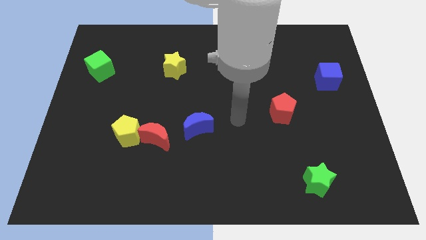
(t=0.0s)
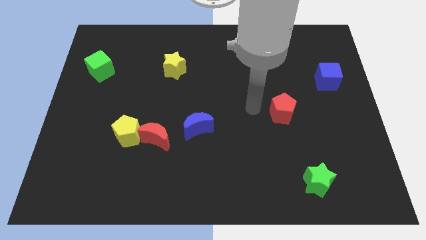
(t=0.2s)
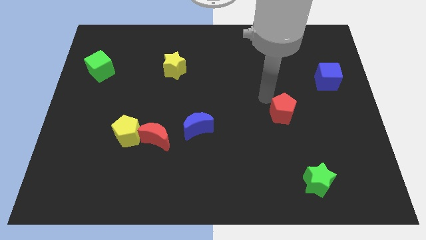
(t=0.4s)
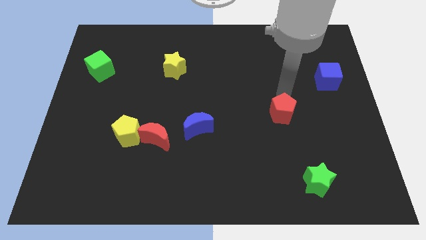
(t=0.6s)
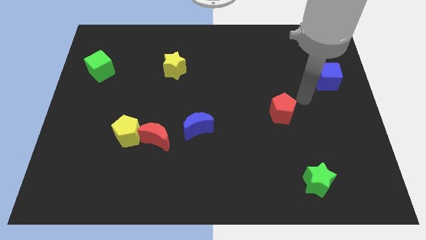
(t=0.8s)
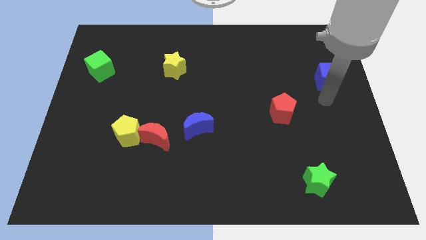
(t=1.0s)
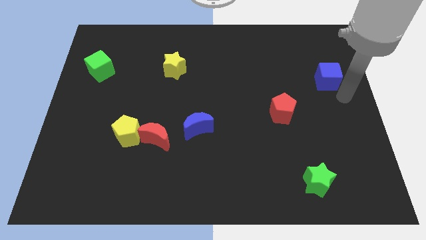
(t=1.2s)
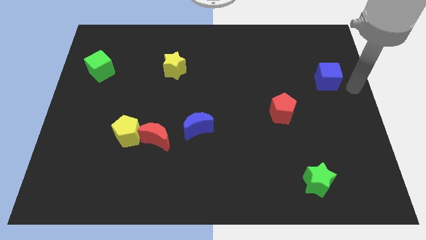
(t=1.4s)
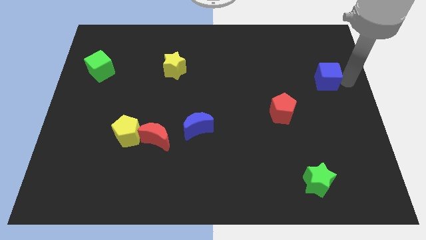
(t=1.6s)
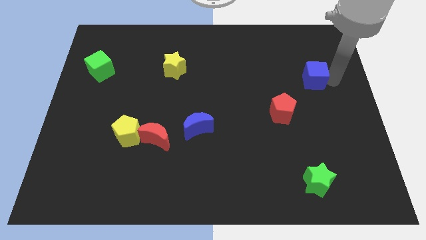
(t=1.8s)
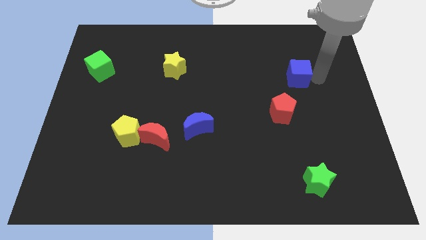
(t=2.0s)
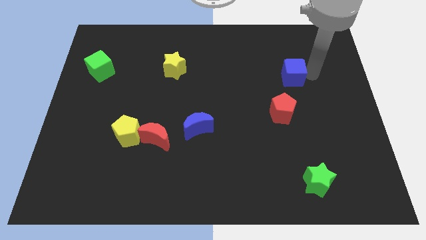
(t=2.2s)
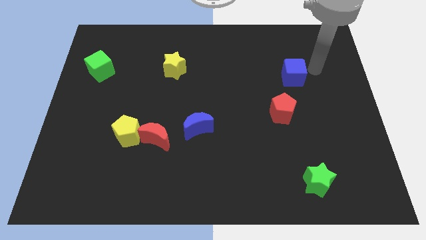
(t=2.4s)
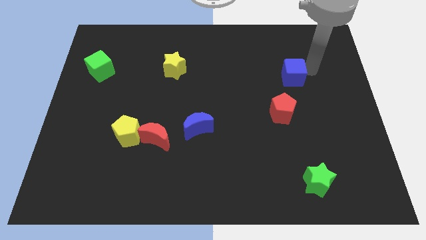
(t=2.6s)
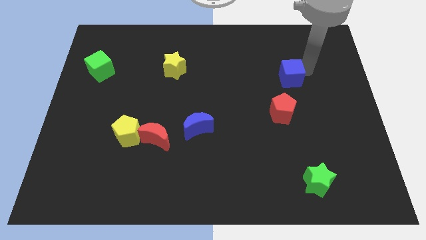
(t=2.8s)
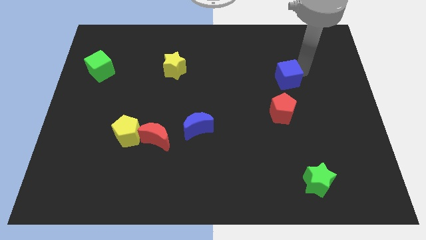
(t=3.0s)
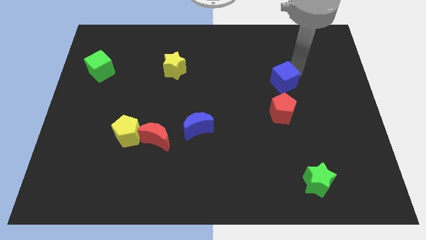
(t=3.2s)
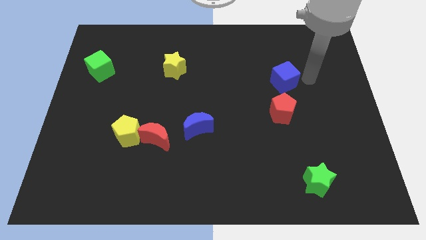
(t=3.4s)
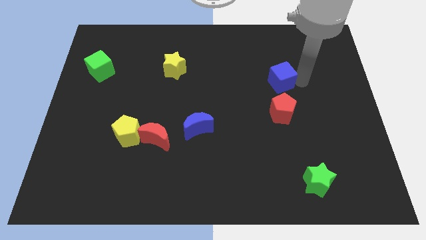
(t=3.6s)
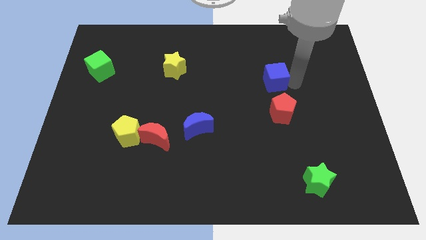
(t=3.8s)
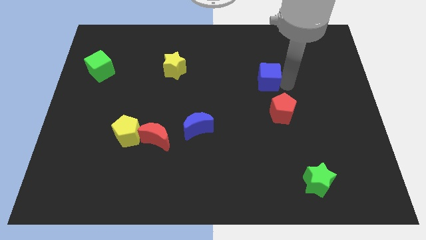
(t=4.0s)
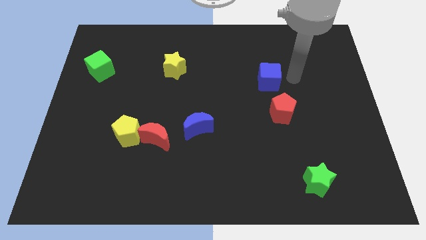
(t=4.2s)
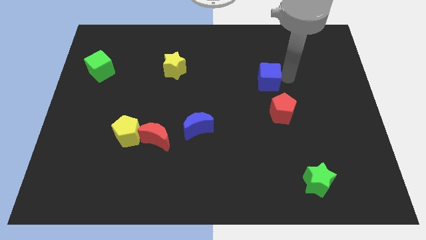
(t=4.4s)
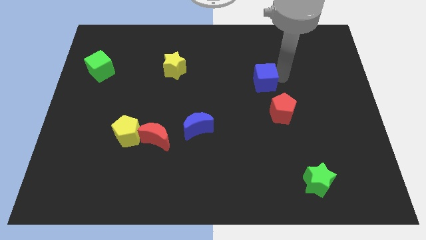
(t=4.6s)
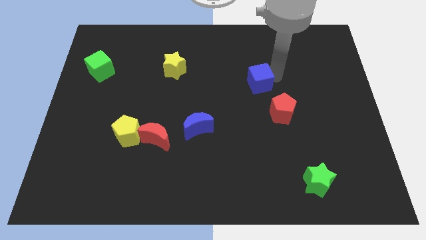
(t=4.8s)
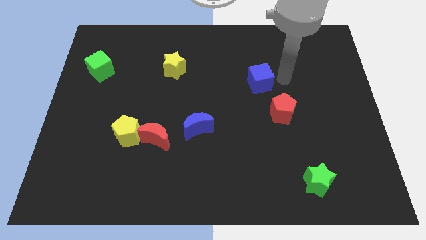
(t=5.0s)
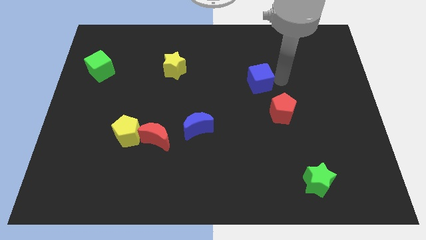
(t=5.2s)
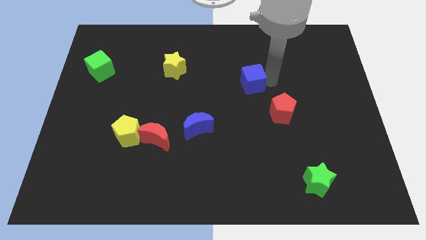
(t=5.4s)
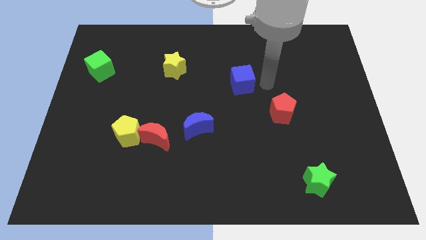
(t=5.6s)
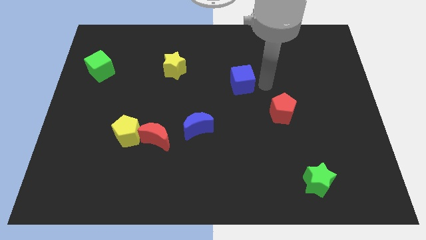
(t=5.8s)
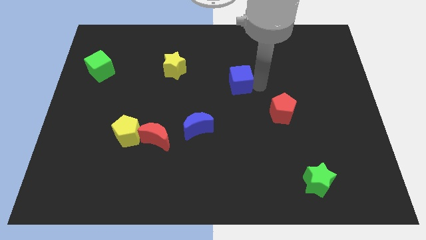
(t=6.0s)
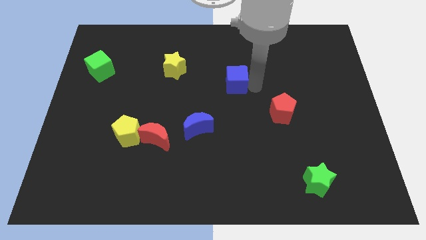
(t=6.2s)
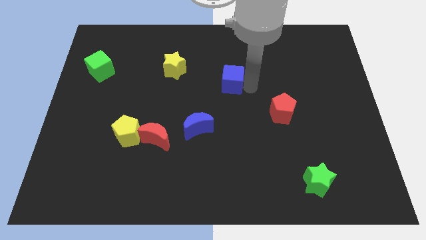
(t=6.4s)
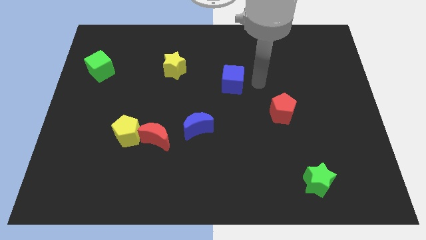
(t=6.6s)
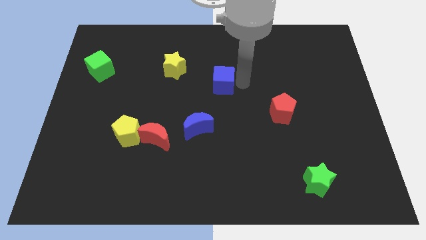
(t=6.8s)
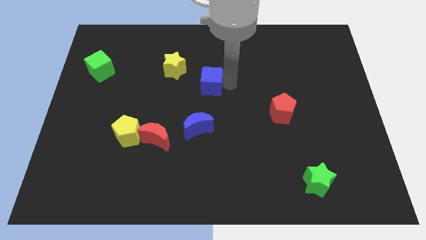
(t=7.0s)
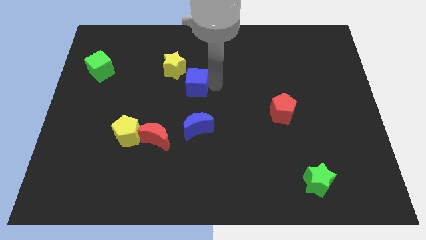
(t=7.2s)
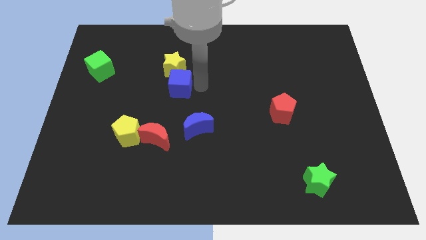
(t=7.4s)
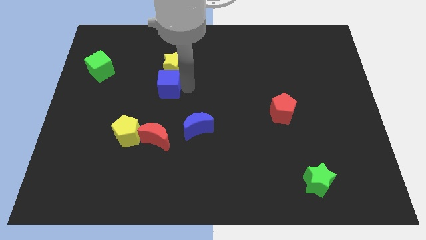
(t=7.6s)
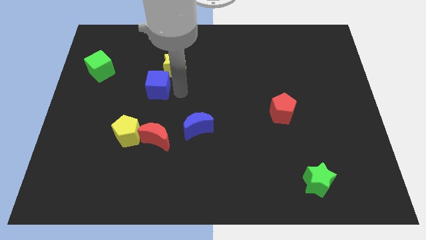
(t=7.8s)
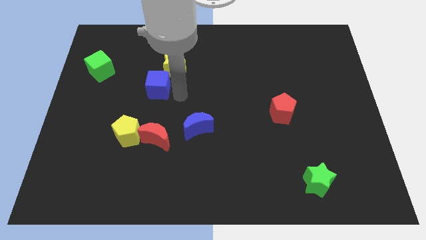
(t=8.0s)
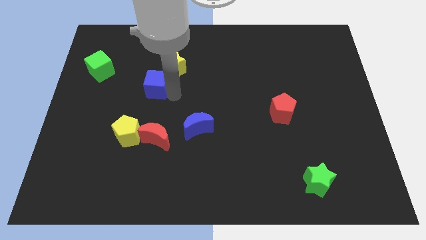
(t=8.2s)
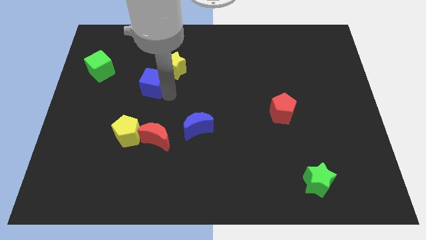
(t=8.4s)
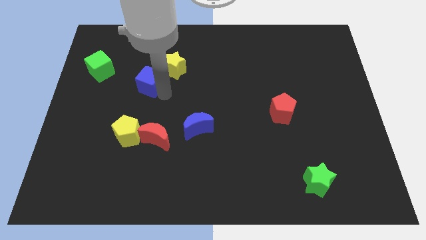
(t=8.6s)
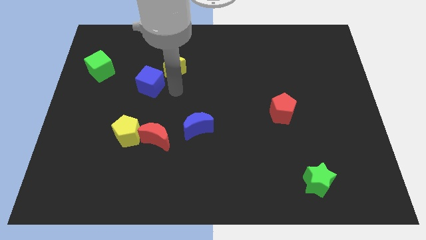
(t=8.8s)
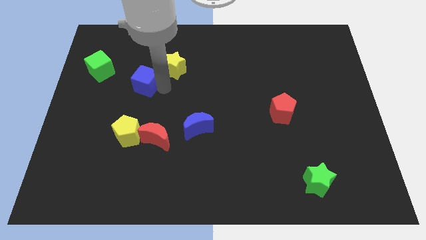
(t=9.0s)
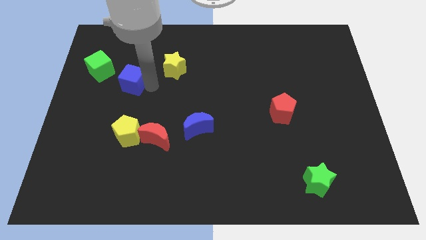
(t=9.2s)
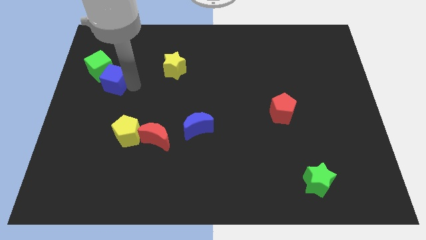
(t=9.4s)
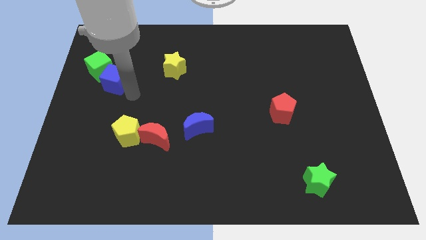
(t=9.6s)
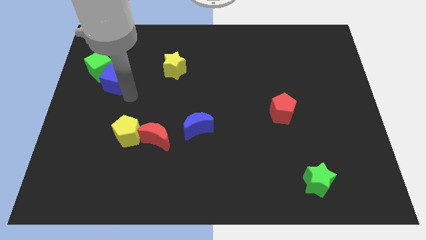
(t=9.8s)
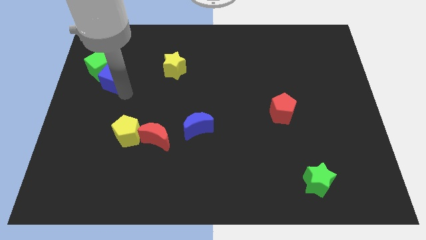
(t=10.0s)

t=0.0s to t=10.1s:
slide the blue cube to the green cube

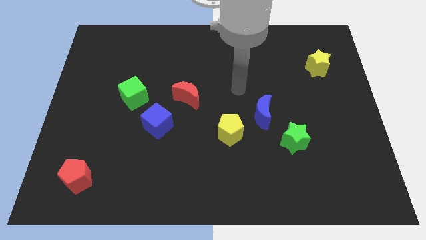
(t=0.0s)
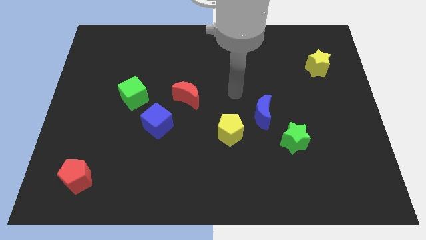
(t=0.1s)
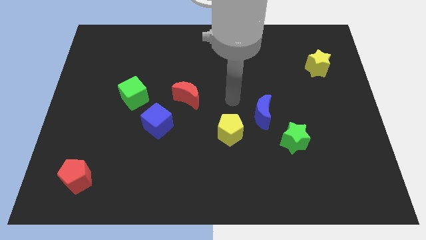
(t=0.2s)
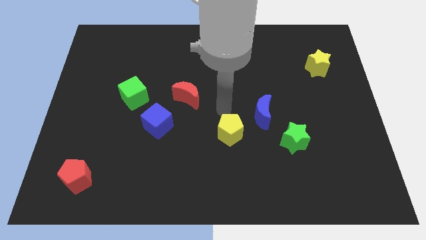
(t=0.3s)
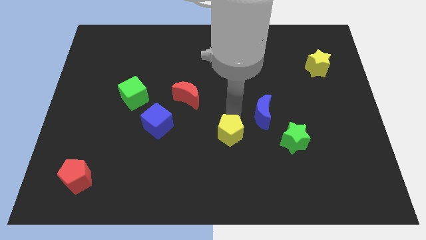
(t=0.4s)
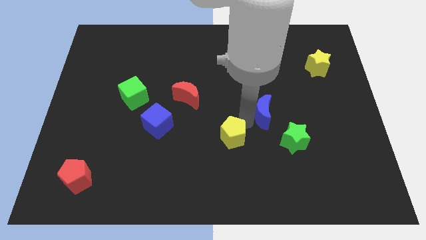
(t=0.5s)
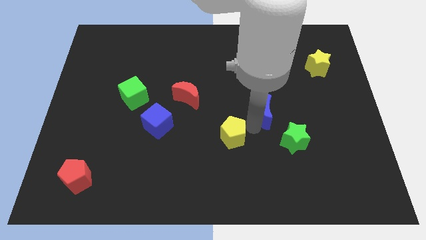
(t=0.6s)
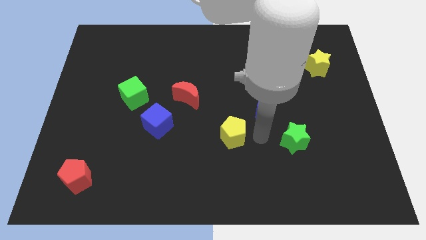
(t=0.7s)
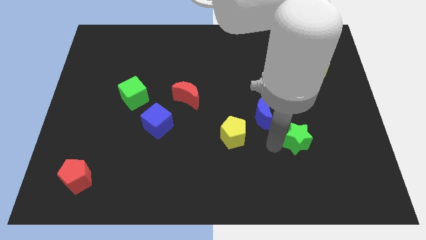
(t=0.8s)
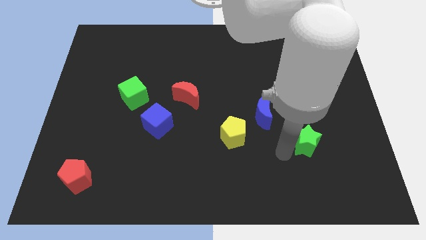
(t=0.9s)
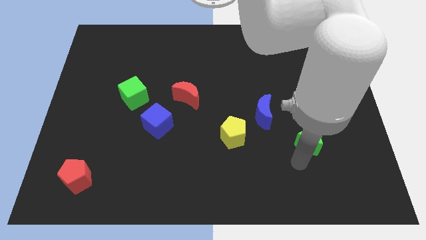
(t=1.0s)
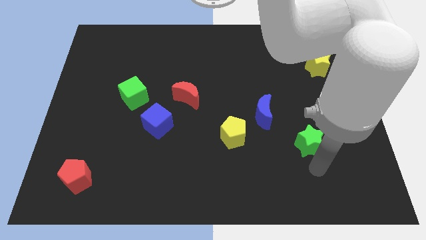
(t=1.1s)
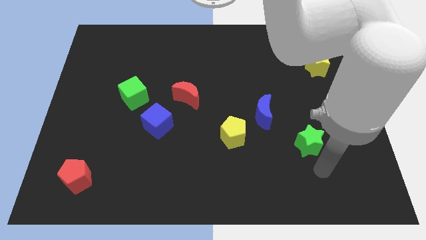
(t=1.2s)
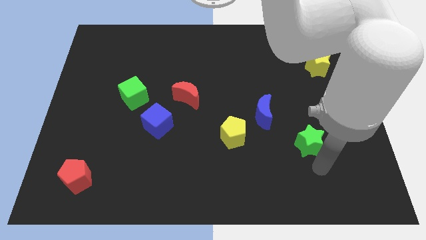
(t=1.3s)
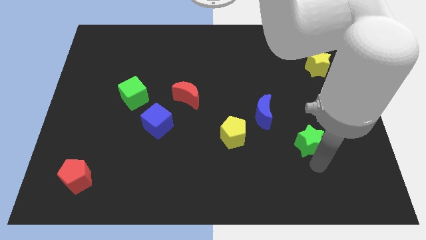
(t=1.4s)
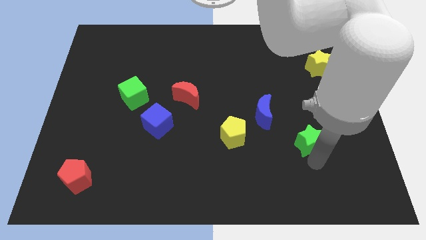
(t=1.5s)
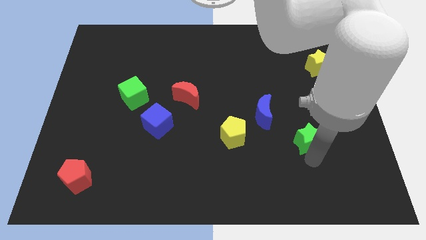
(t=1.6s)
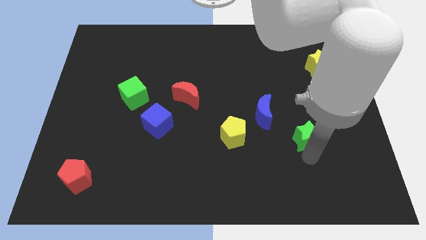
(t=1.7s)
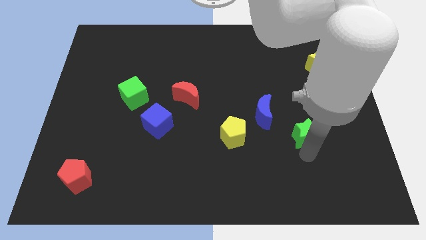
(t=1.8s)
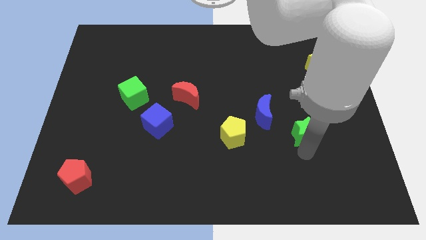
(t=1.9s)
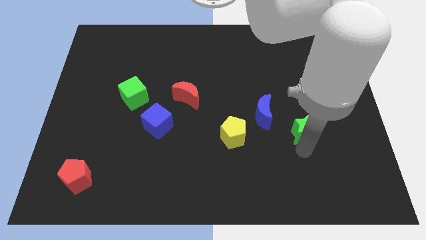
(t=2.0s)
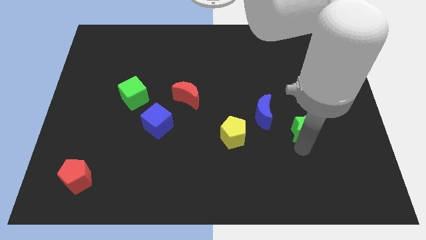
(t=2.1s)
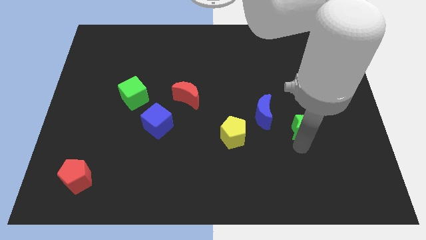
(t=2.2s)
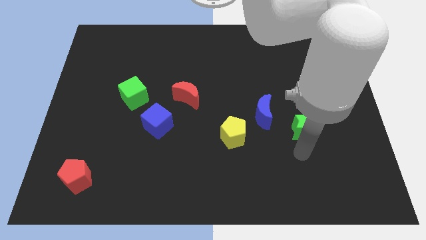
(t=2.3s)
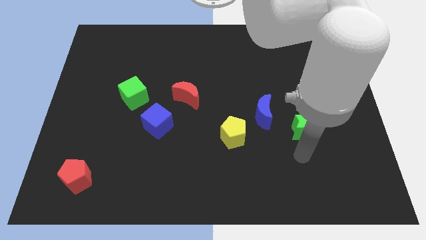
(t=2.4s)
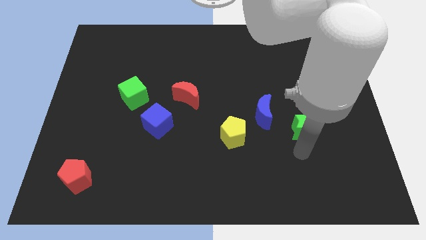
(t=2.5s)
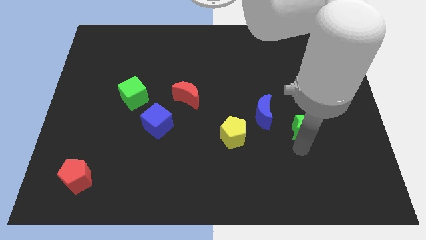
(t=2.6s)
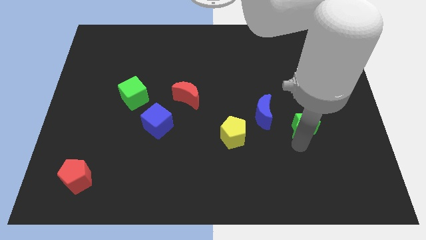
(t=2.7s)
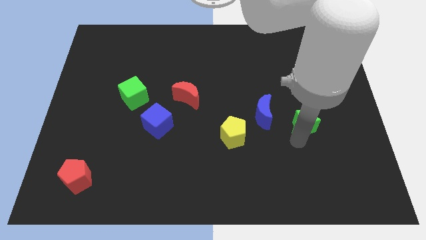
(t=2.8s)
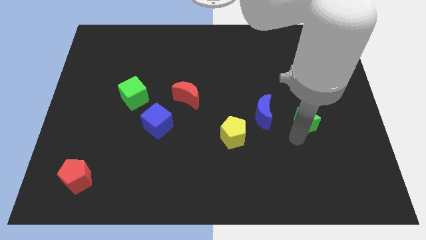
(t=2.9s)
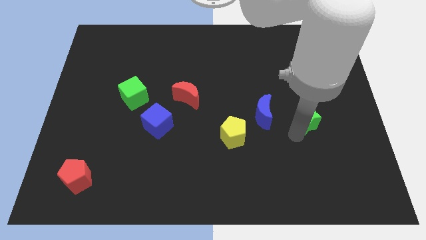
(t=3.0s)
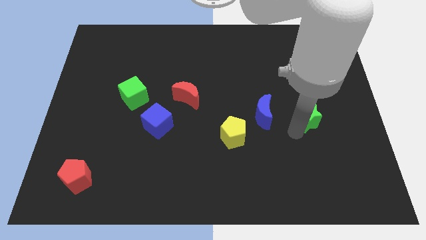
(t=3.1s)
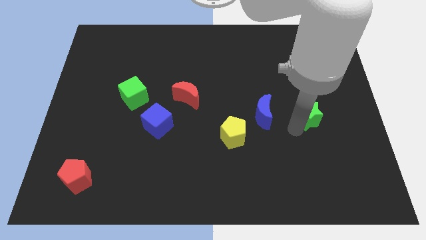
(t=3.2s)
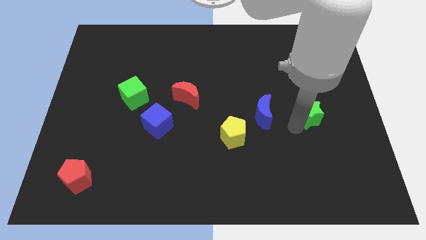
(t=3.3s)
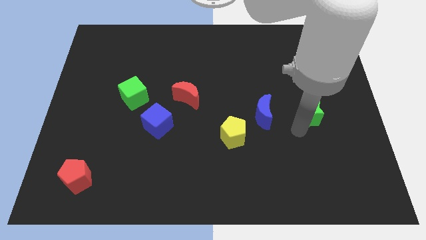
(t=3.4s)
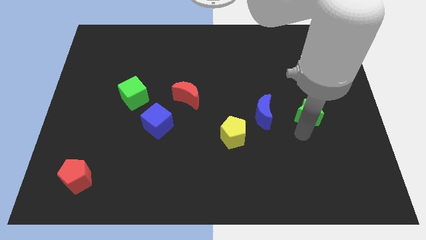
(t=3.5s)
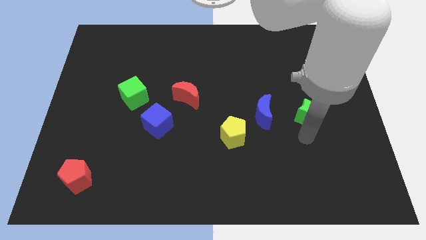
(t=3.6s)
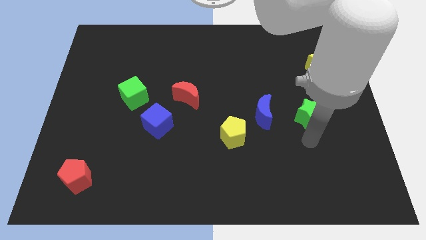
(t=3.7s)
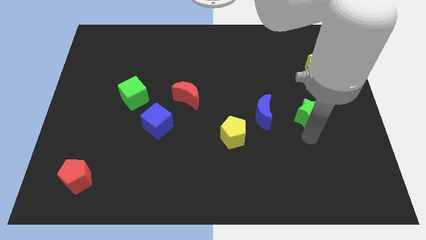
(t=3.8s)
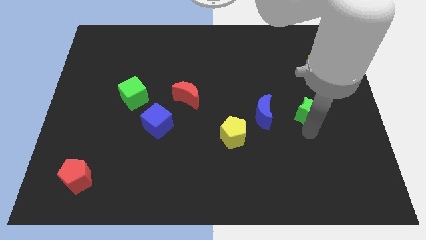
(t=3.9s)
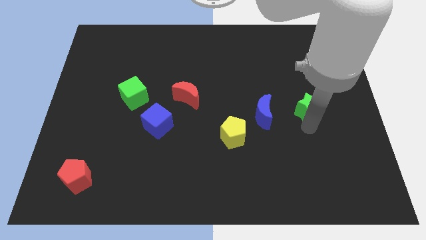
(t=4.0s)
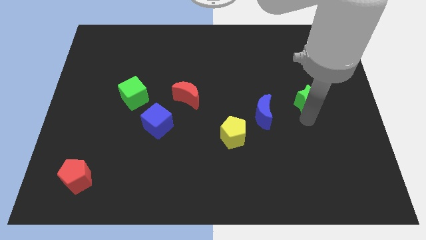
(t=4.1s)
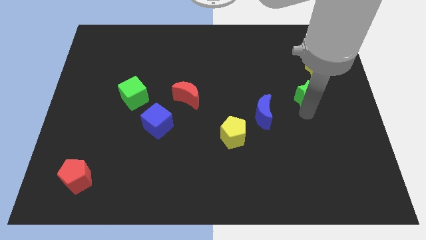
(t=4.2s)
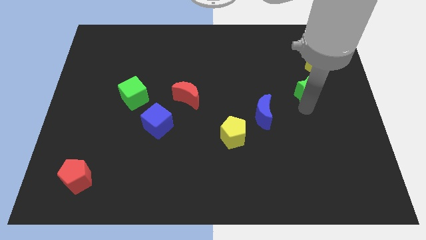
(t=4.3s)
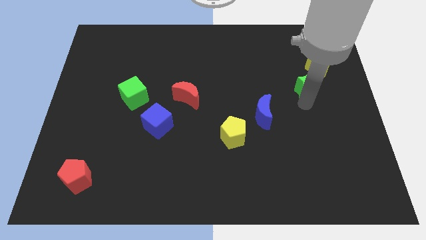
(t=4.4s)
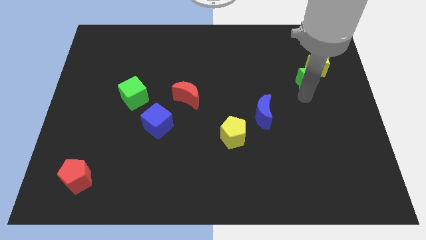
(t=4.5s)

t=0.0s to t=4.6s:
slide the green star close to the yellow star
